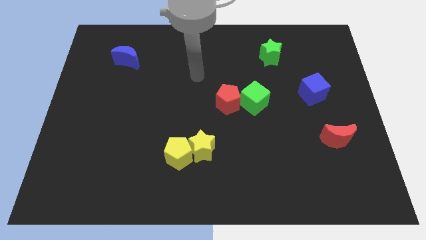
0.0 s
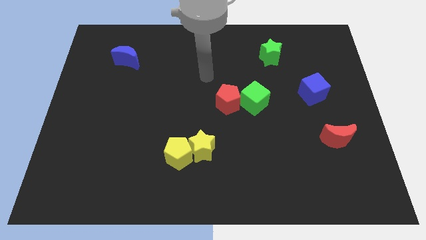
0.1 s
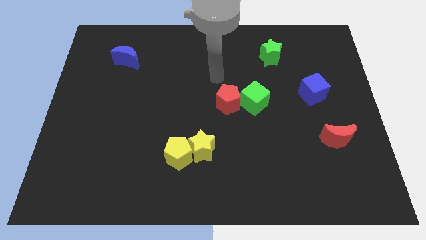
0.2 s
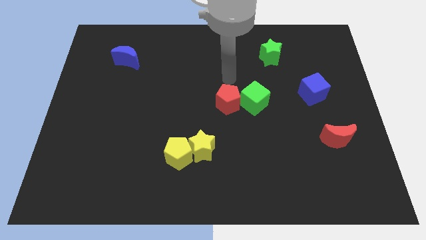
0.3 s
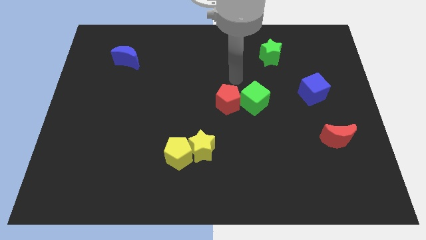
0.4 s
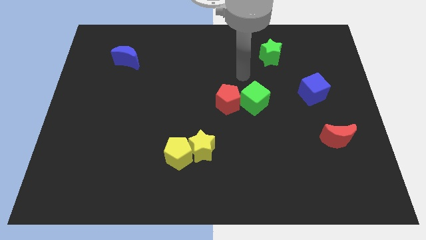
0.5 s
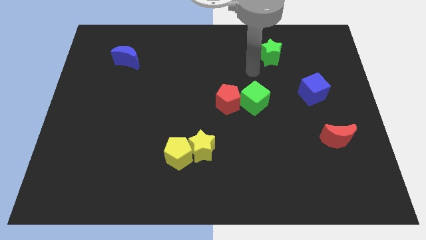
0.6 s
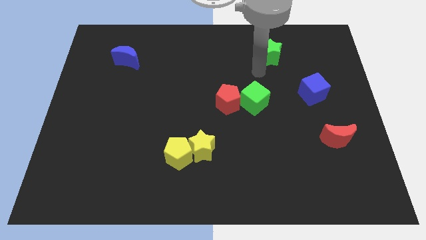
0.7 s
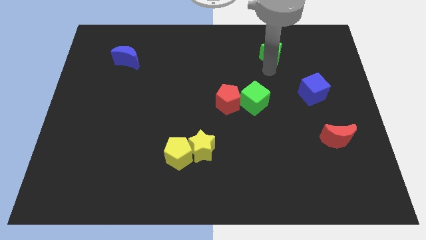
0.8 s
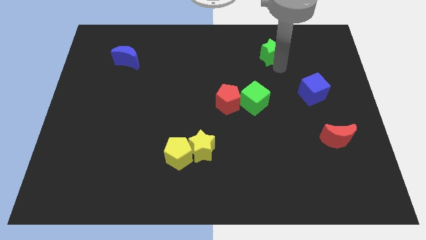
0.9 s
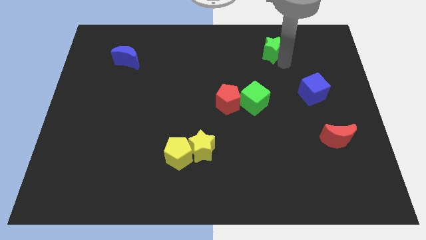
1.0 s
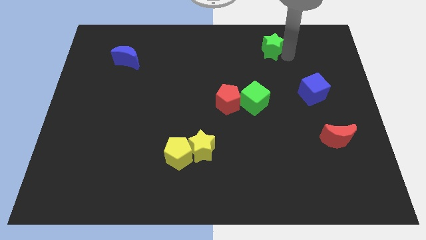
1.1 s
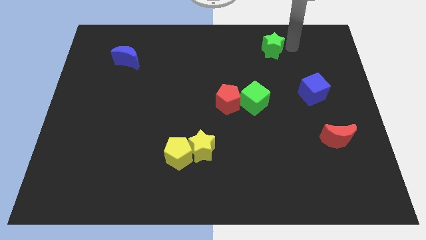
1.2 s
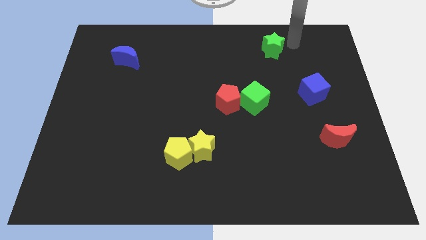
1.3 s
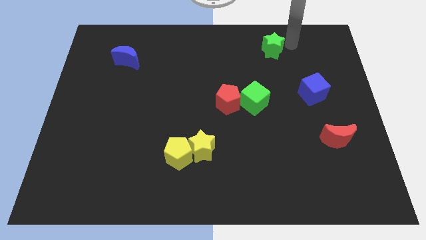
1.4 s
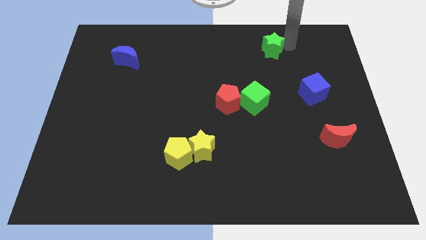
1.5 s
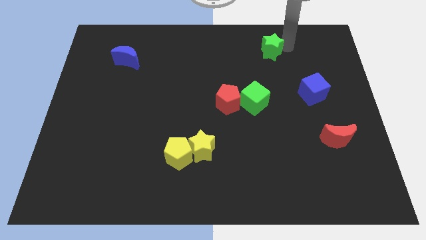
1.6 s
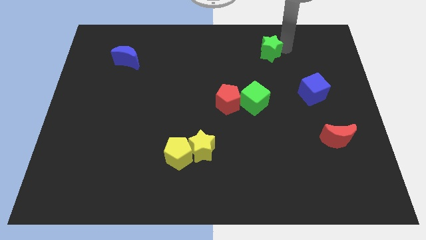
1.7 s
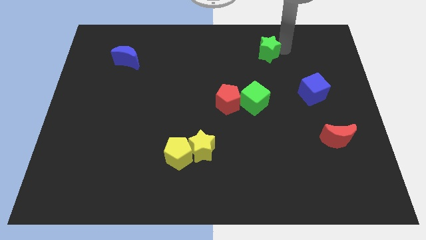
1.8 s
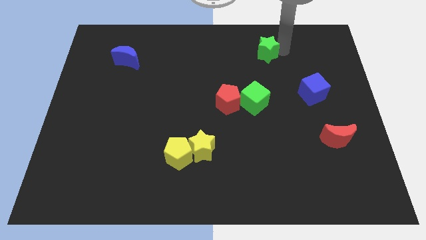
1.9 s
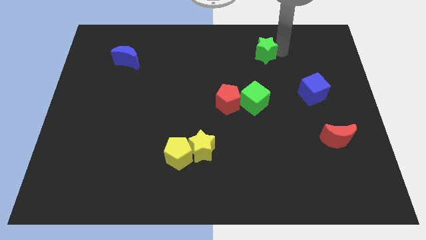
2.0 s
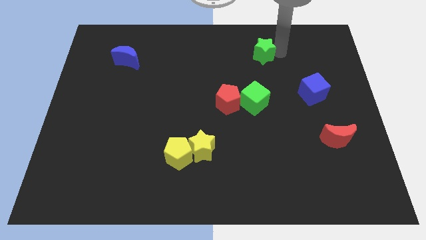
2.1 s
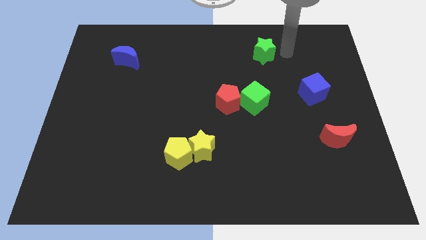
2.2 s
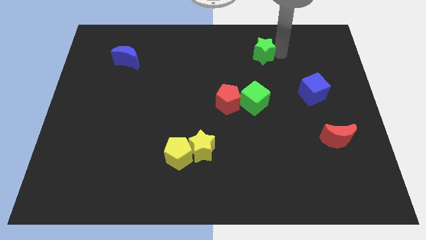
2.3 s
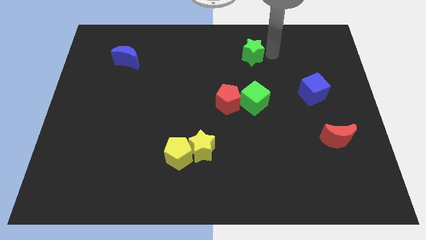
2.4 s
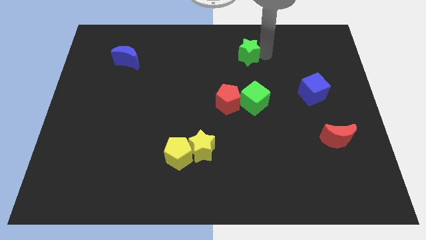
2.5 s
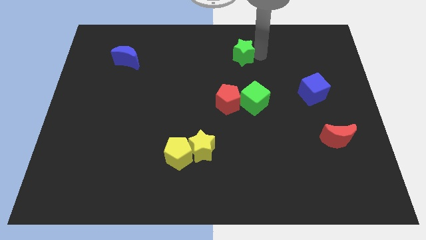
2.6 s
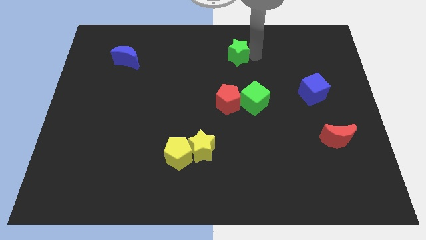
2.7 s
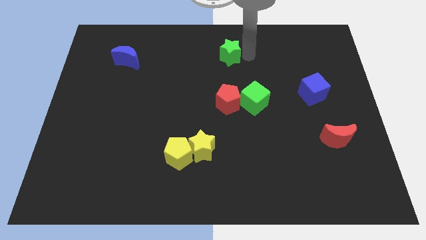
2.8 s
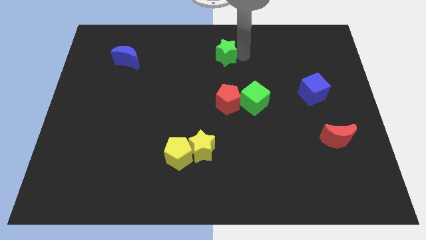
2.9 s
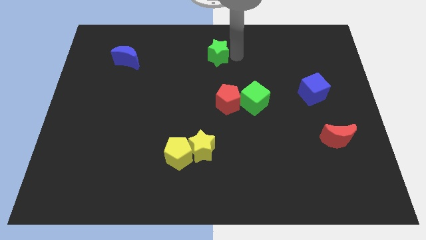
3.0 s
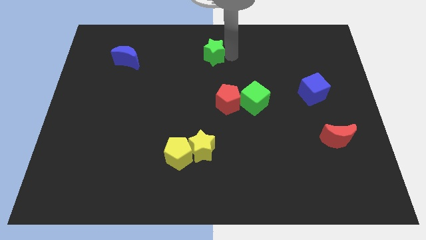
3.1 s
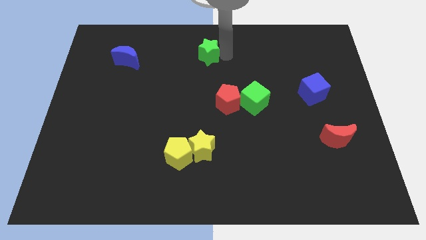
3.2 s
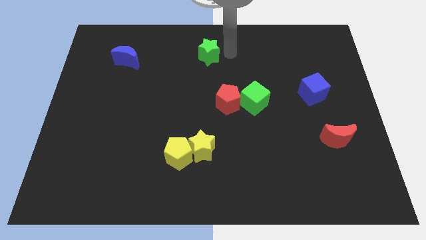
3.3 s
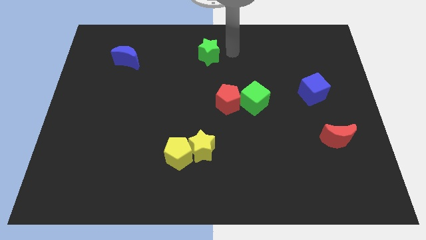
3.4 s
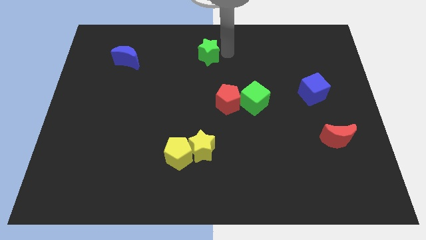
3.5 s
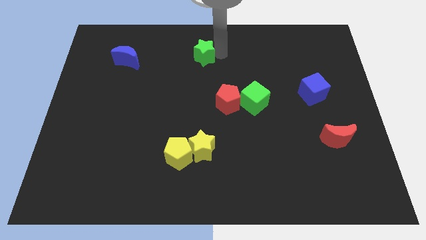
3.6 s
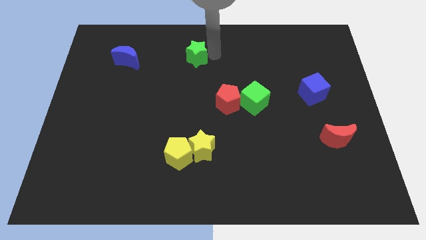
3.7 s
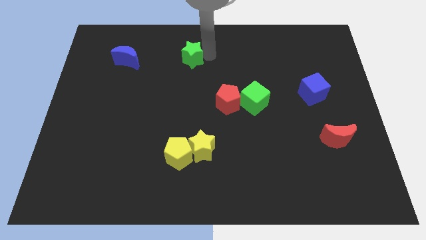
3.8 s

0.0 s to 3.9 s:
move the green star left

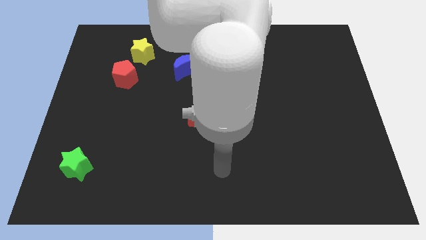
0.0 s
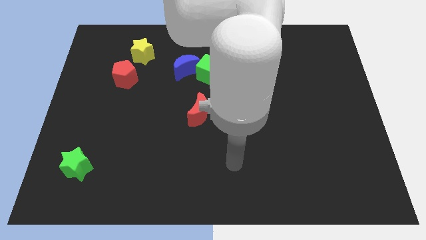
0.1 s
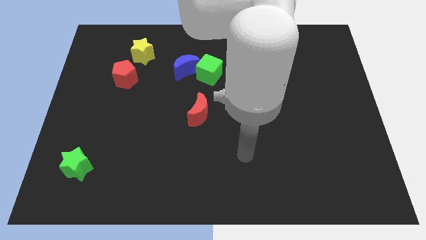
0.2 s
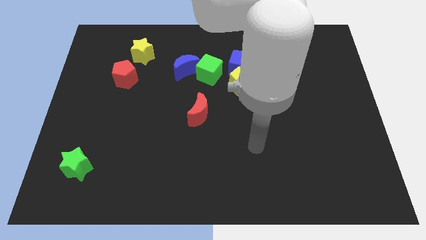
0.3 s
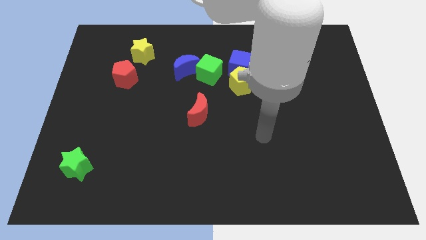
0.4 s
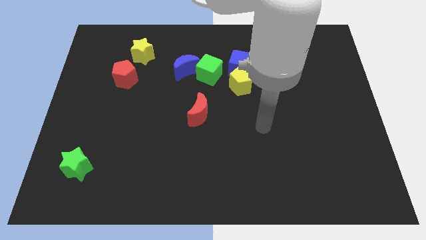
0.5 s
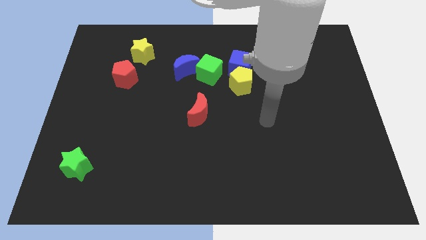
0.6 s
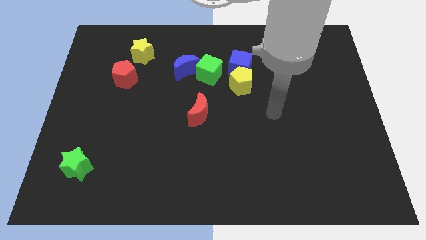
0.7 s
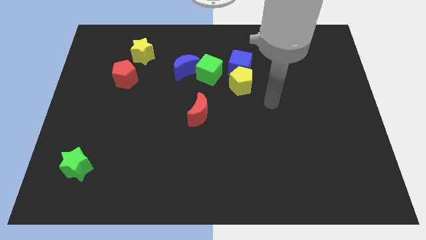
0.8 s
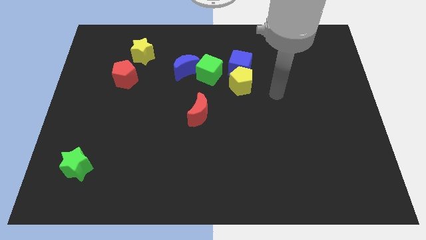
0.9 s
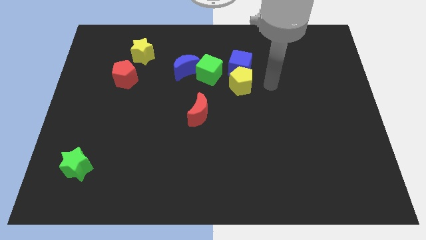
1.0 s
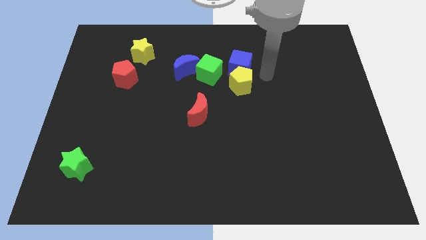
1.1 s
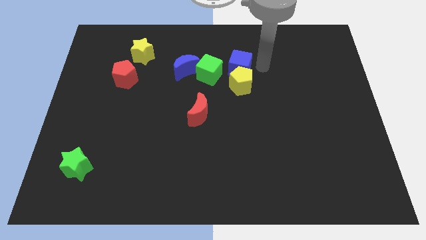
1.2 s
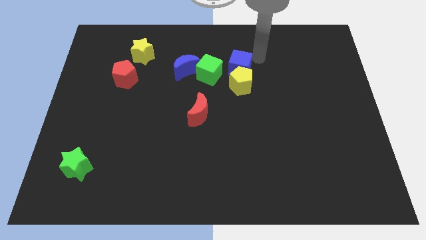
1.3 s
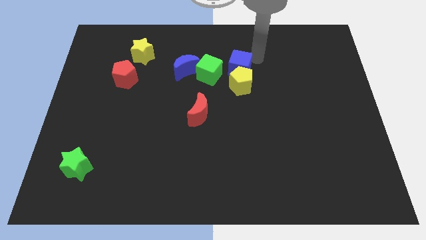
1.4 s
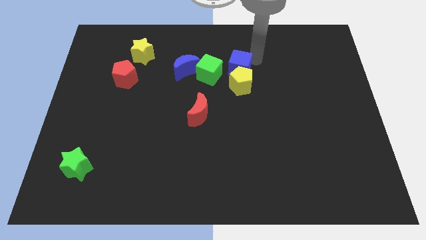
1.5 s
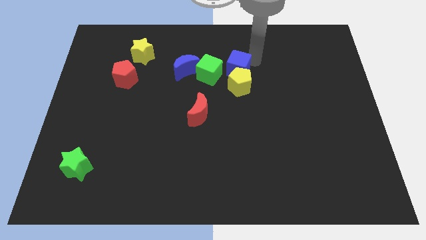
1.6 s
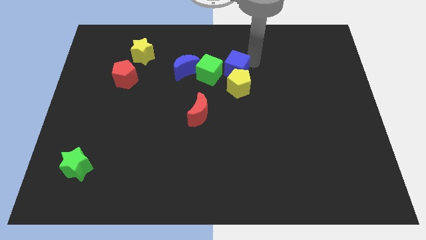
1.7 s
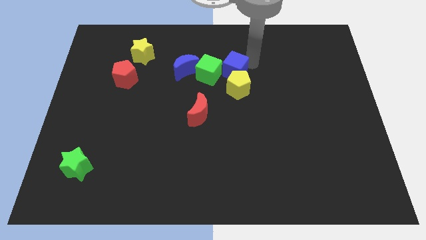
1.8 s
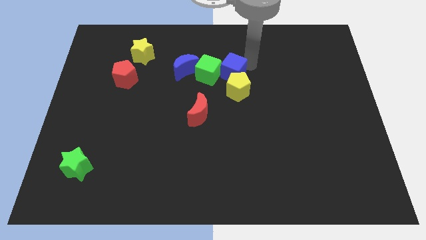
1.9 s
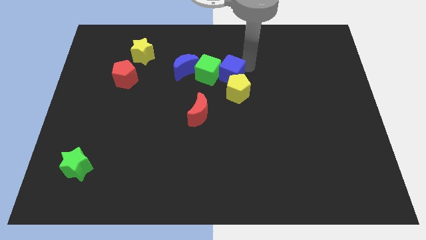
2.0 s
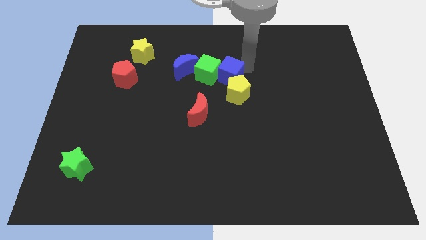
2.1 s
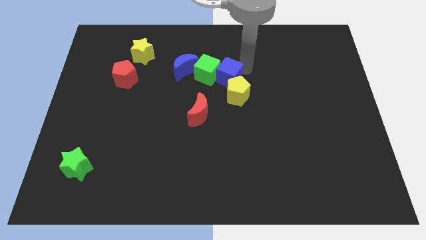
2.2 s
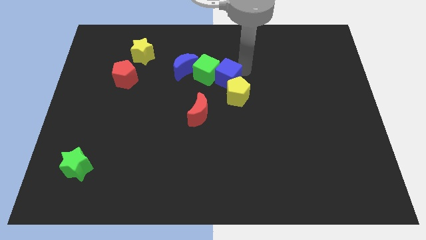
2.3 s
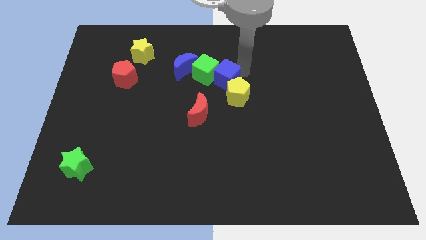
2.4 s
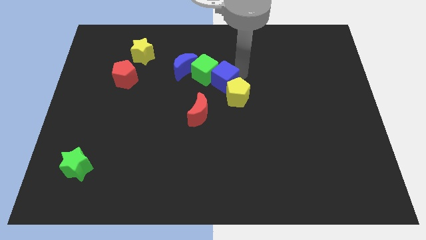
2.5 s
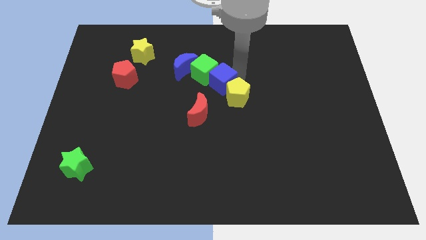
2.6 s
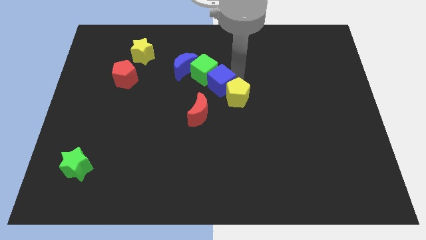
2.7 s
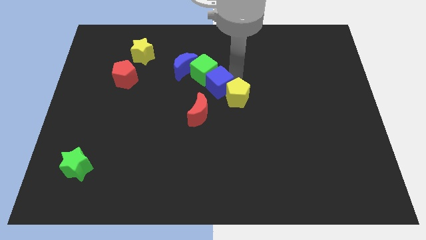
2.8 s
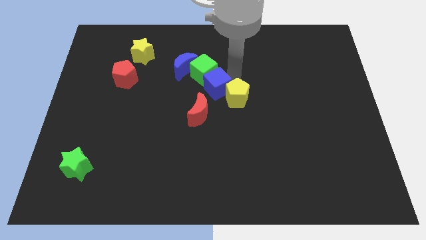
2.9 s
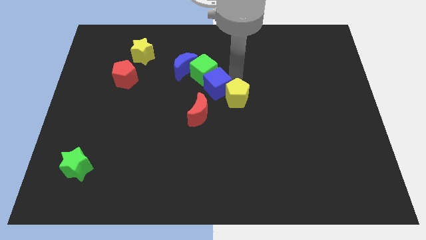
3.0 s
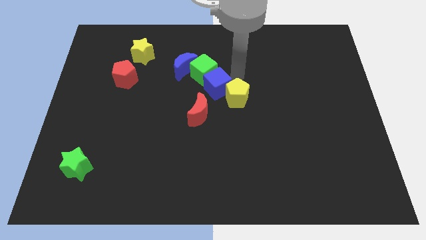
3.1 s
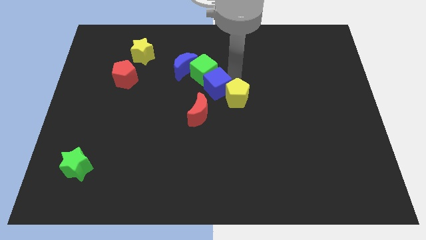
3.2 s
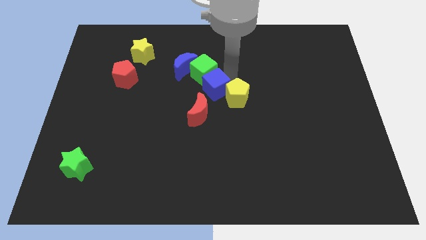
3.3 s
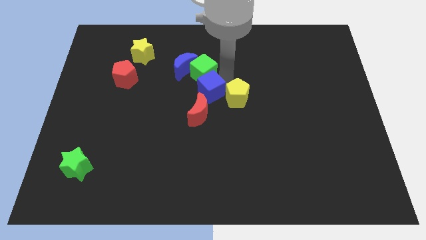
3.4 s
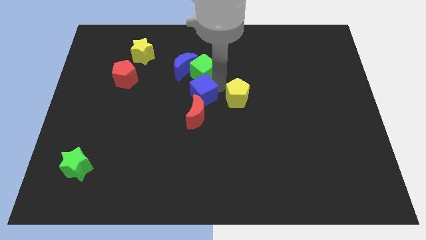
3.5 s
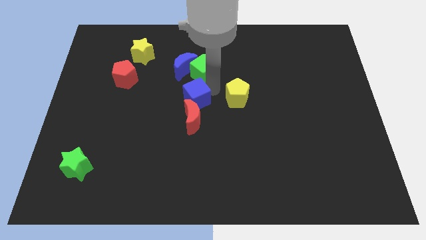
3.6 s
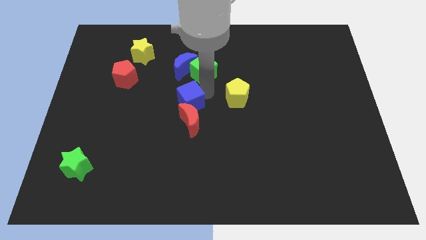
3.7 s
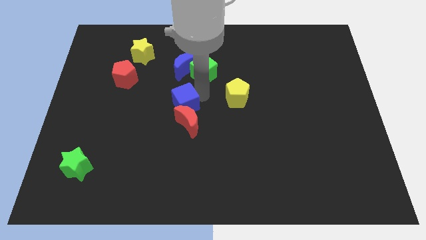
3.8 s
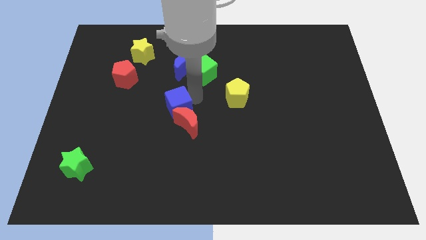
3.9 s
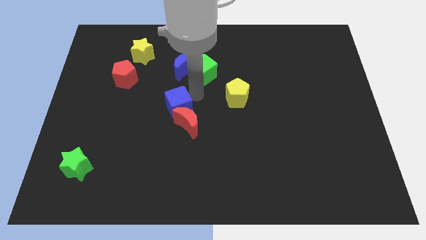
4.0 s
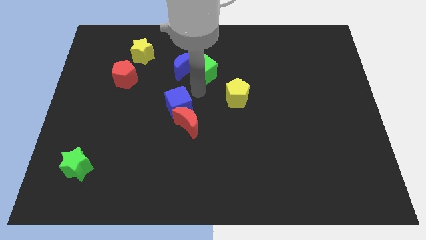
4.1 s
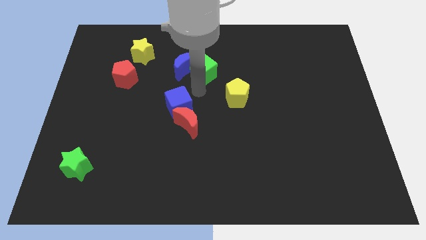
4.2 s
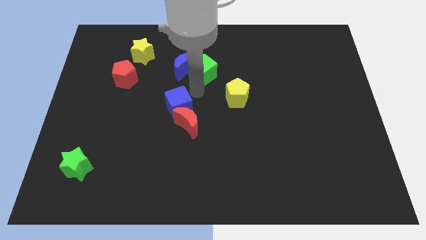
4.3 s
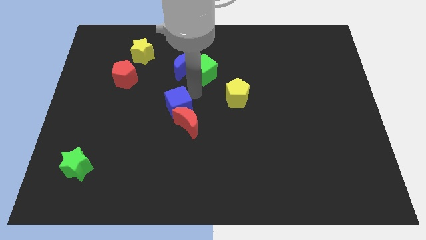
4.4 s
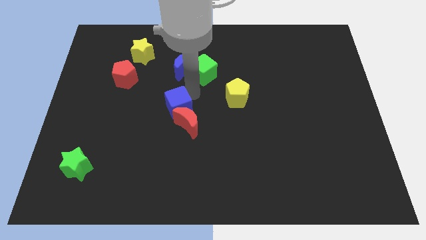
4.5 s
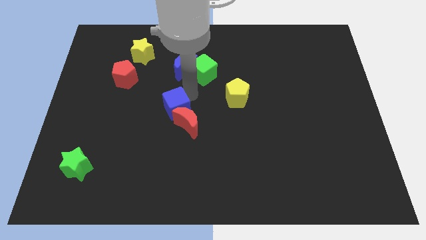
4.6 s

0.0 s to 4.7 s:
push the blue cube diagonally downwards and to the left
